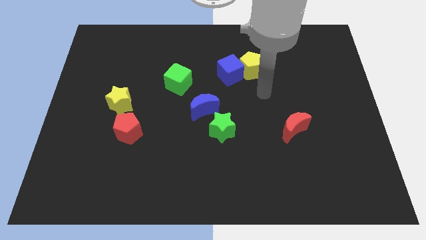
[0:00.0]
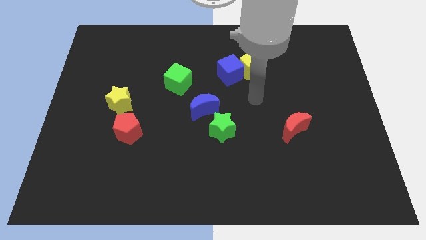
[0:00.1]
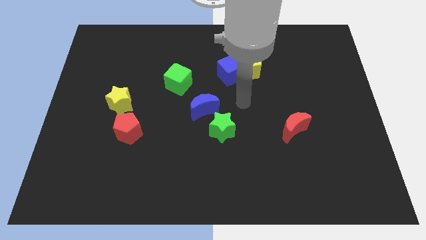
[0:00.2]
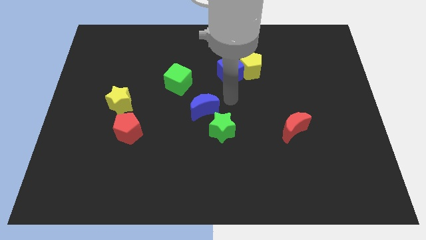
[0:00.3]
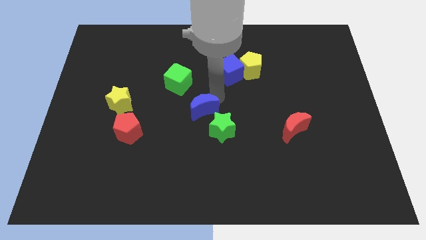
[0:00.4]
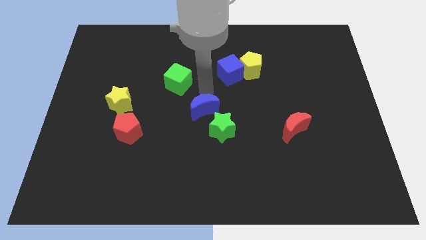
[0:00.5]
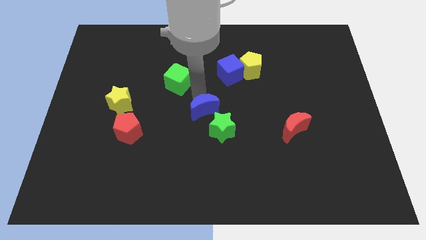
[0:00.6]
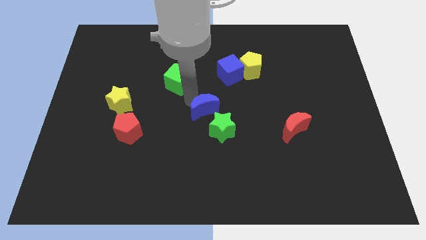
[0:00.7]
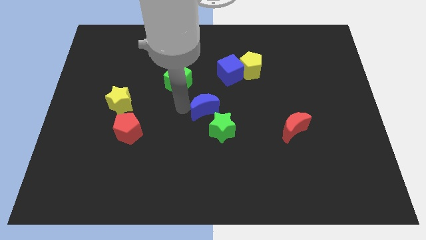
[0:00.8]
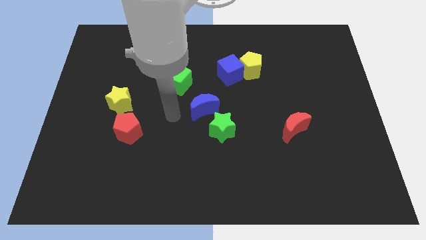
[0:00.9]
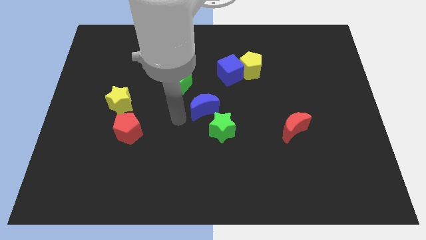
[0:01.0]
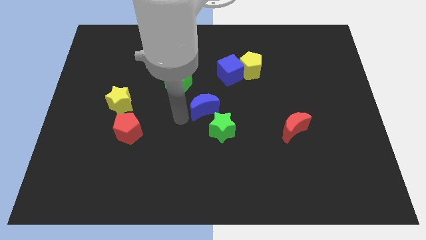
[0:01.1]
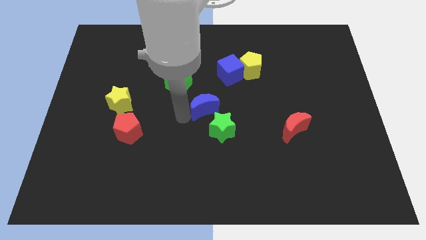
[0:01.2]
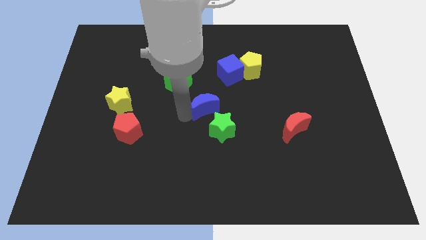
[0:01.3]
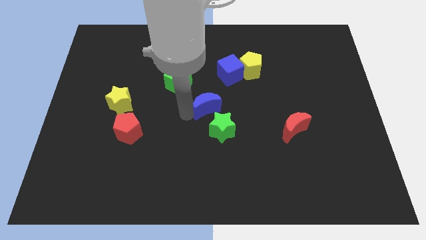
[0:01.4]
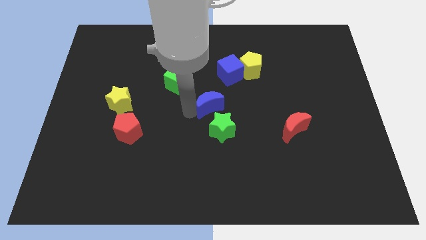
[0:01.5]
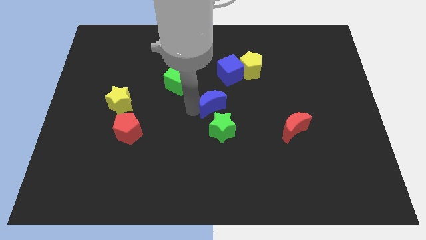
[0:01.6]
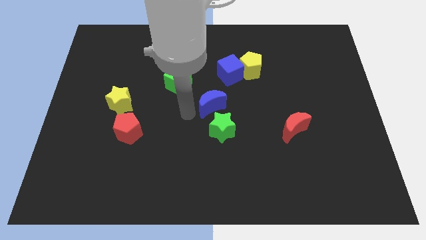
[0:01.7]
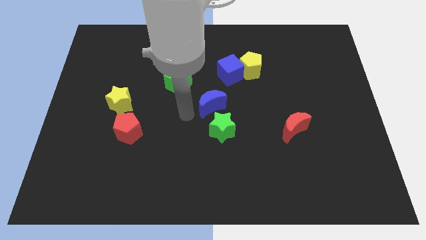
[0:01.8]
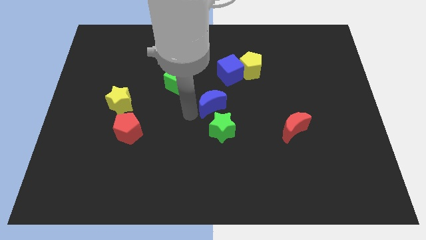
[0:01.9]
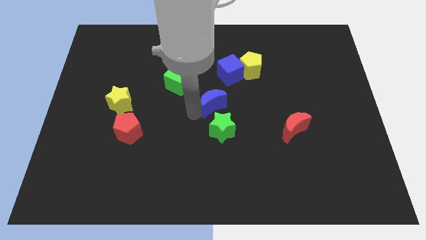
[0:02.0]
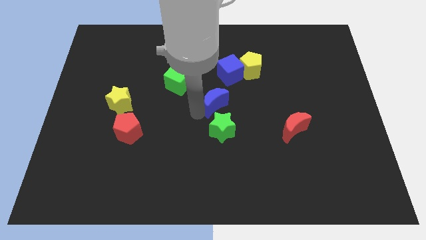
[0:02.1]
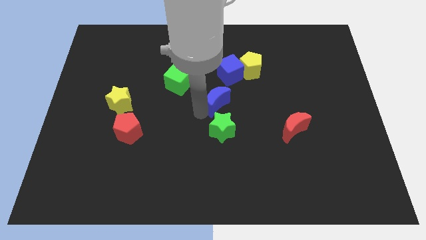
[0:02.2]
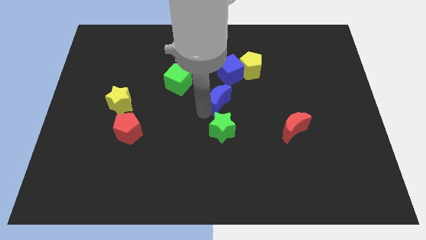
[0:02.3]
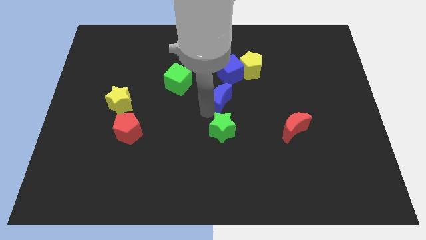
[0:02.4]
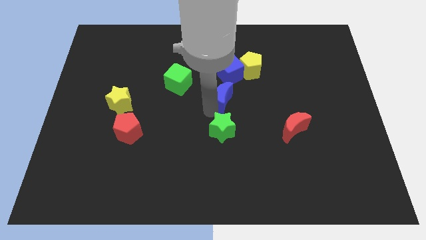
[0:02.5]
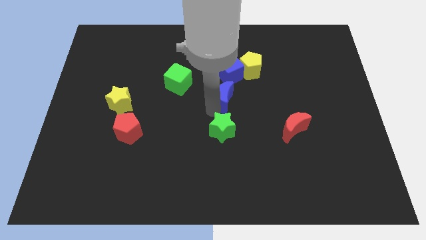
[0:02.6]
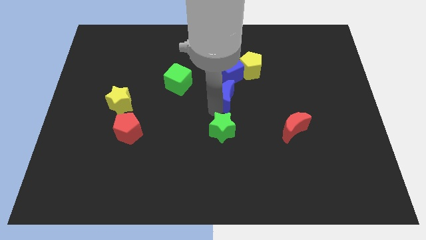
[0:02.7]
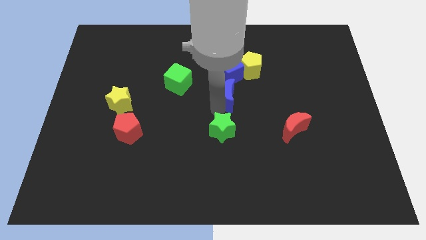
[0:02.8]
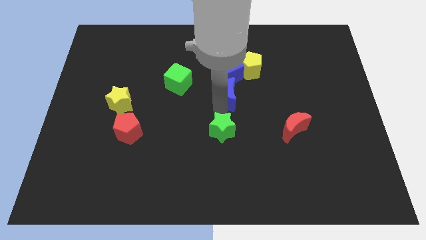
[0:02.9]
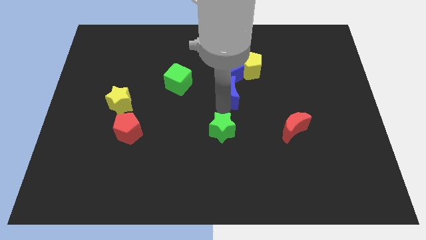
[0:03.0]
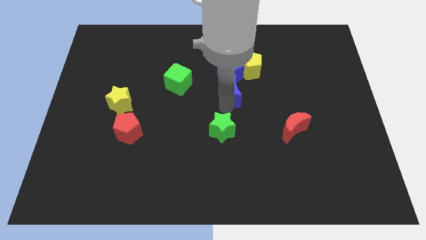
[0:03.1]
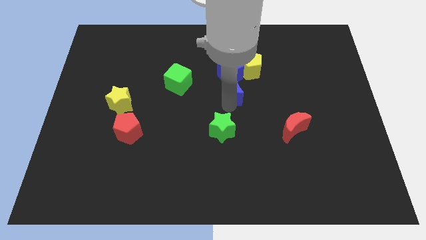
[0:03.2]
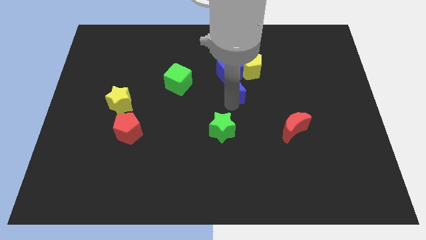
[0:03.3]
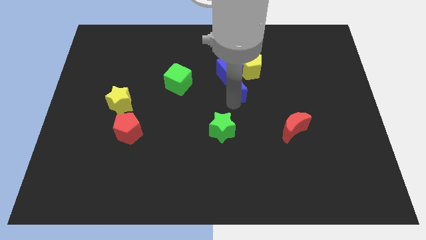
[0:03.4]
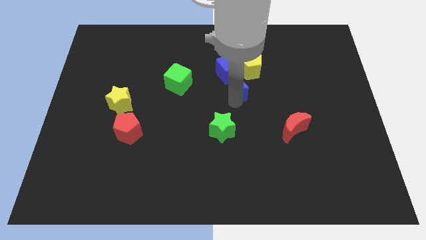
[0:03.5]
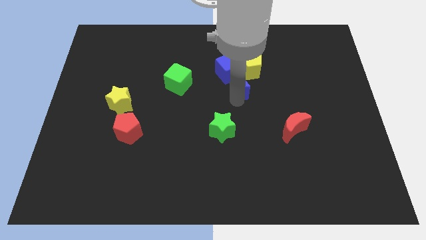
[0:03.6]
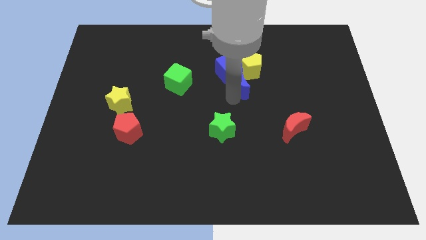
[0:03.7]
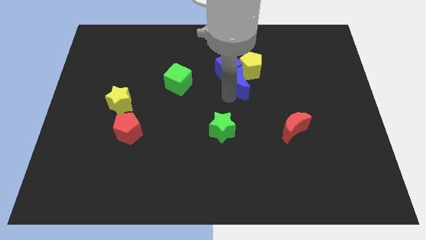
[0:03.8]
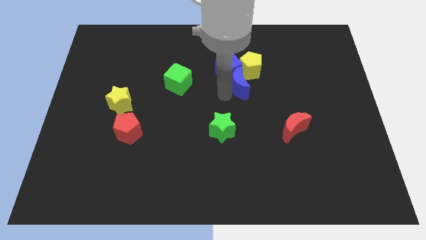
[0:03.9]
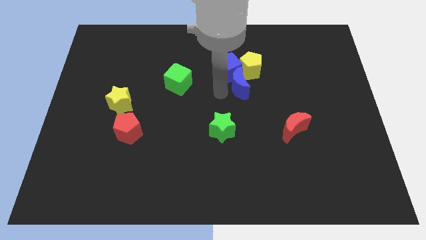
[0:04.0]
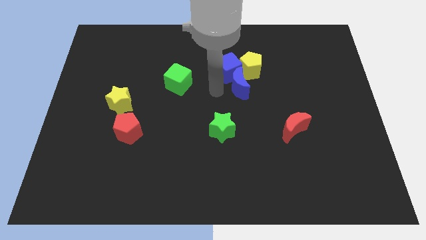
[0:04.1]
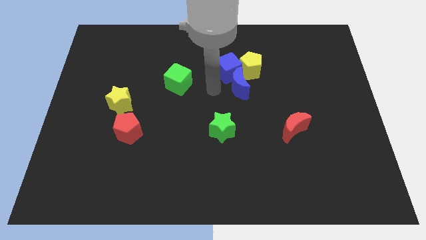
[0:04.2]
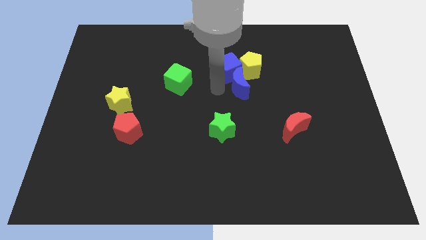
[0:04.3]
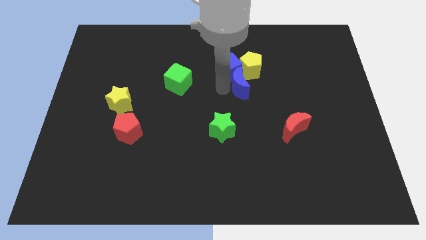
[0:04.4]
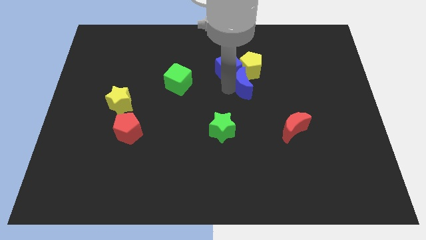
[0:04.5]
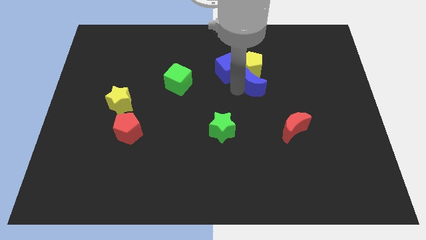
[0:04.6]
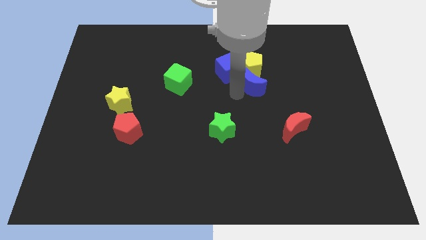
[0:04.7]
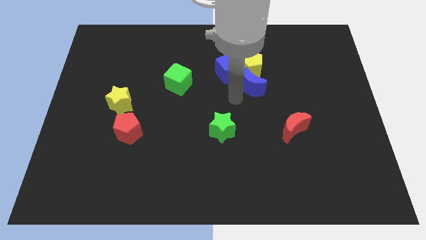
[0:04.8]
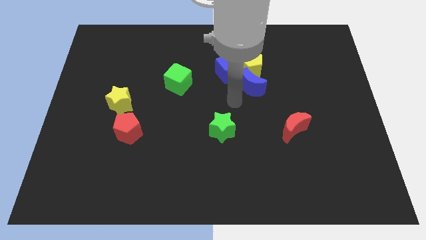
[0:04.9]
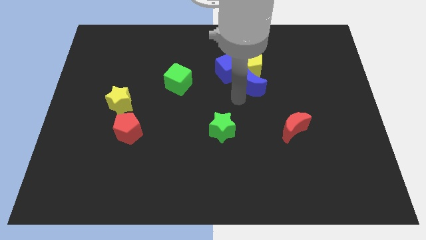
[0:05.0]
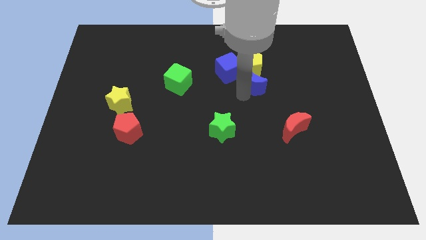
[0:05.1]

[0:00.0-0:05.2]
push the blue moon just right of the blue cube

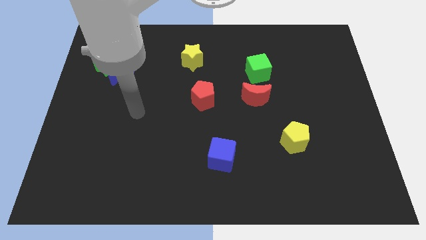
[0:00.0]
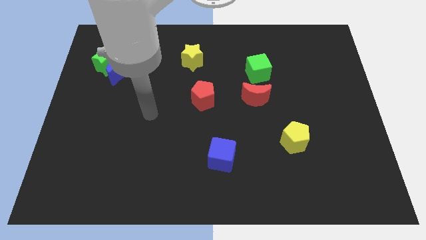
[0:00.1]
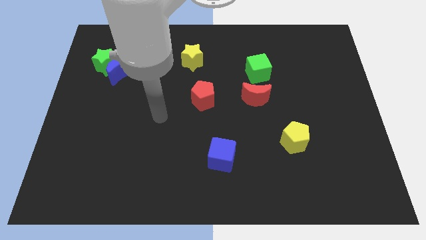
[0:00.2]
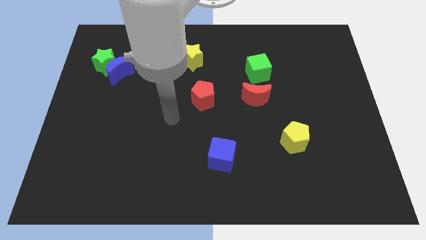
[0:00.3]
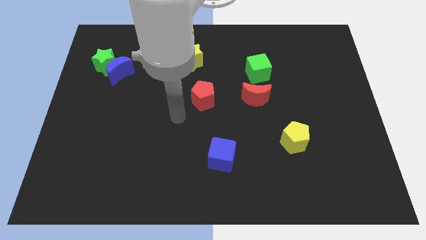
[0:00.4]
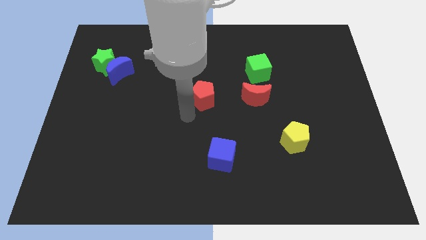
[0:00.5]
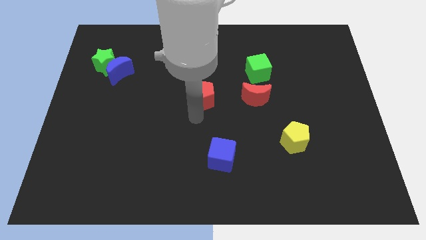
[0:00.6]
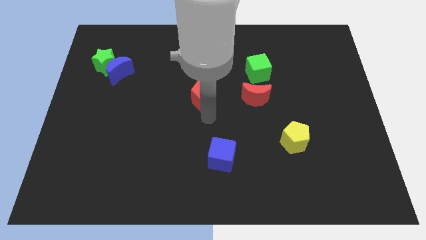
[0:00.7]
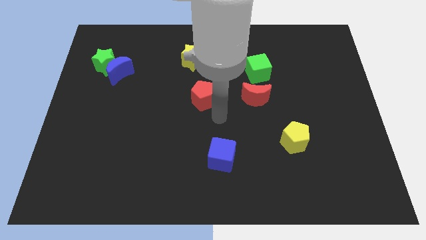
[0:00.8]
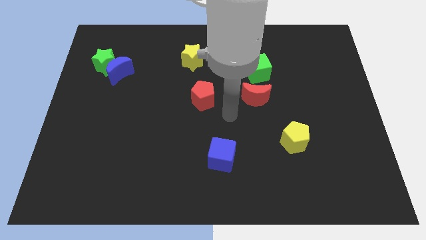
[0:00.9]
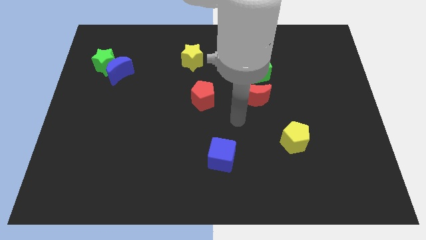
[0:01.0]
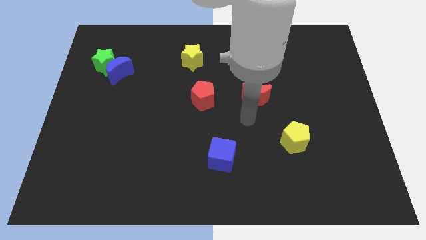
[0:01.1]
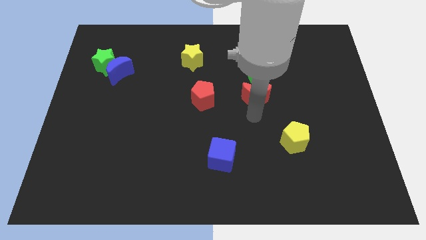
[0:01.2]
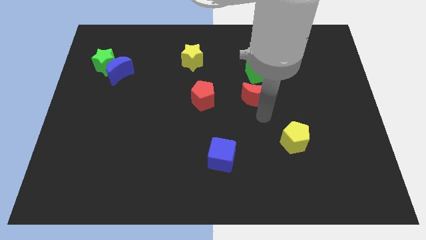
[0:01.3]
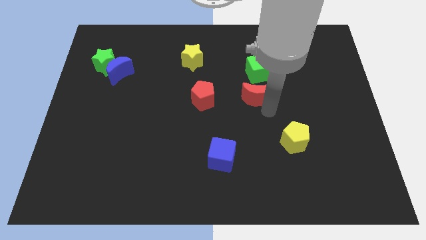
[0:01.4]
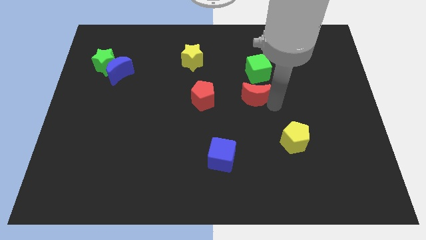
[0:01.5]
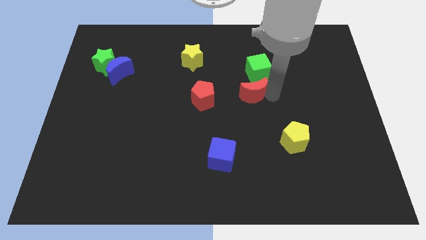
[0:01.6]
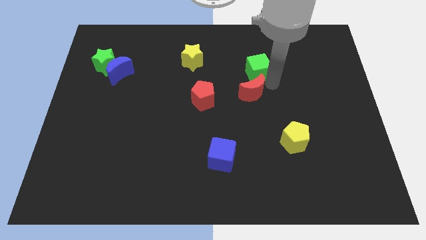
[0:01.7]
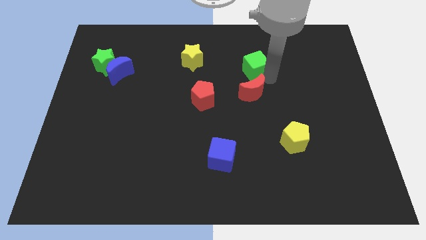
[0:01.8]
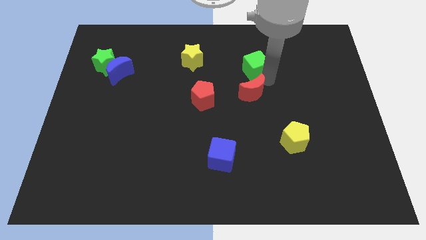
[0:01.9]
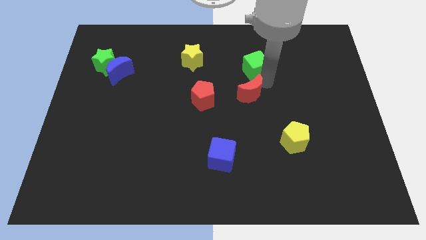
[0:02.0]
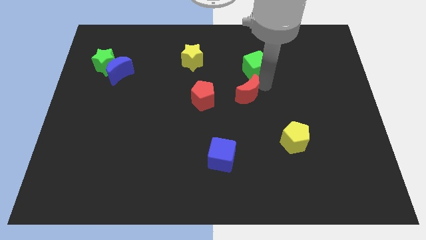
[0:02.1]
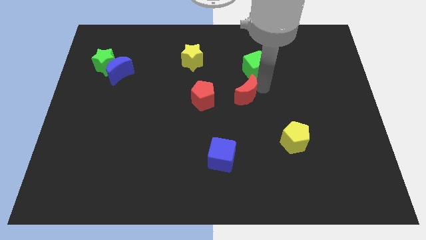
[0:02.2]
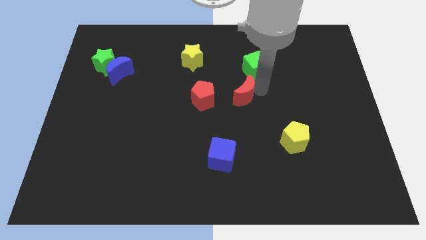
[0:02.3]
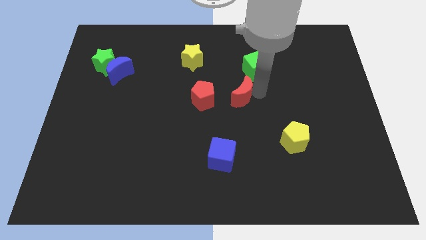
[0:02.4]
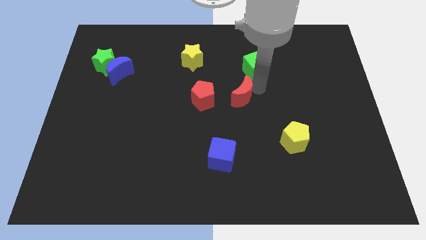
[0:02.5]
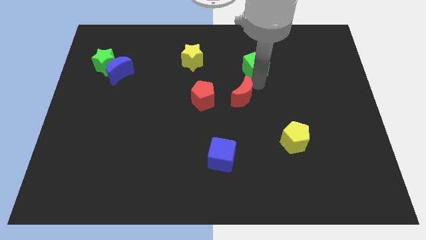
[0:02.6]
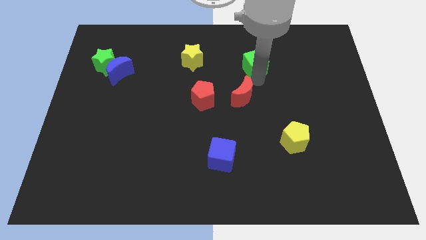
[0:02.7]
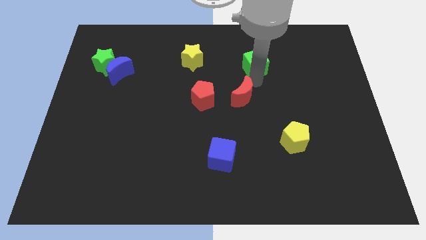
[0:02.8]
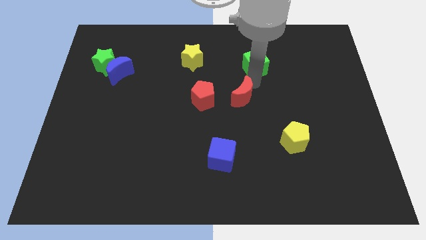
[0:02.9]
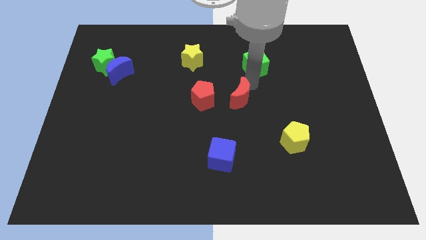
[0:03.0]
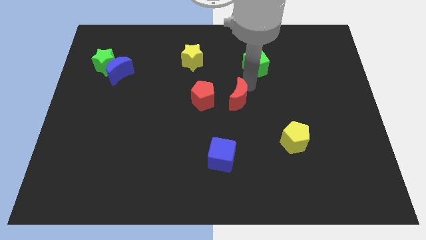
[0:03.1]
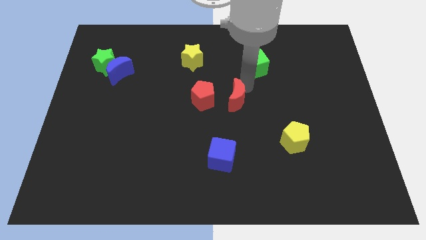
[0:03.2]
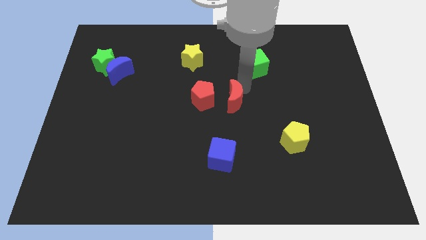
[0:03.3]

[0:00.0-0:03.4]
move the red moon to the bottom right of the red pentagon
